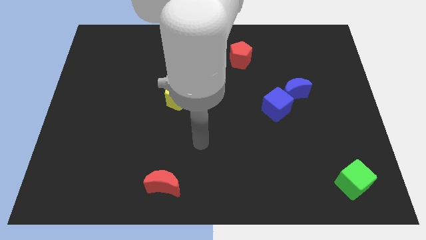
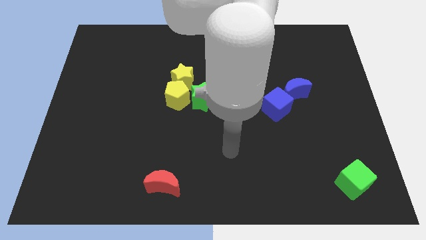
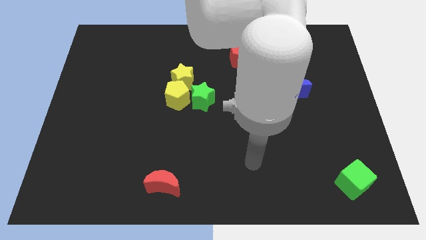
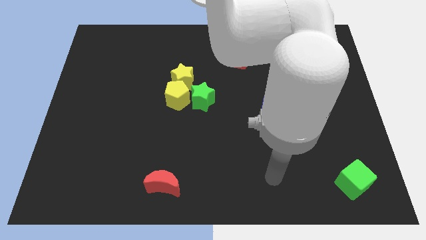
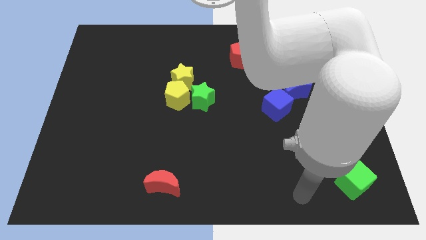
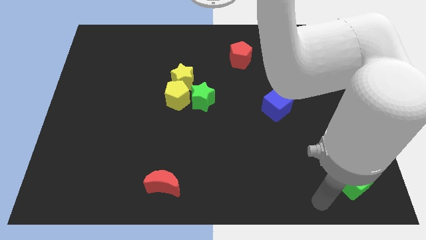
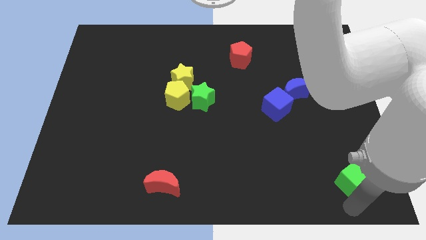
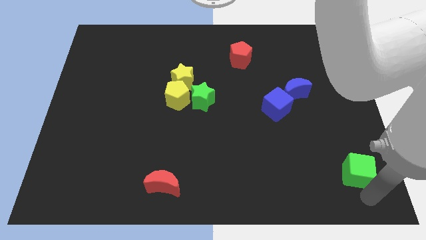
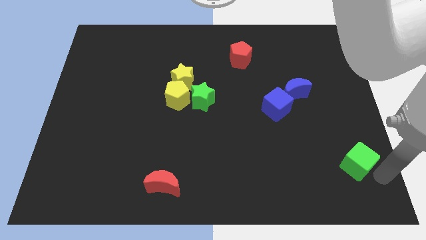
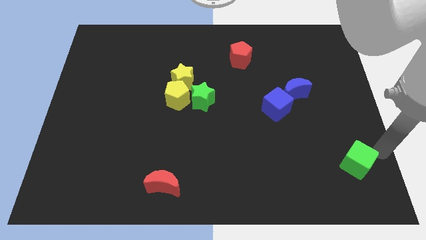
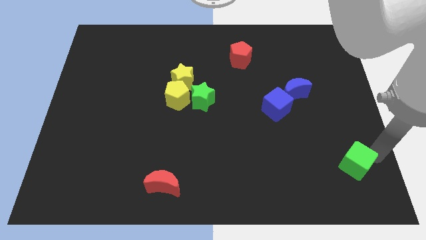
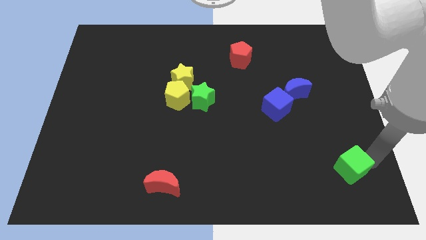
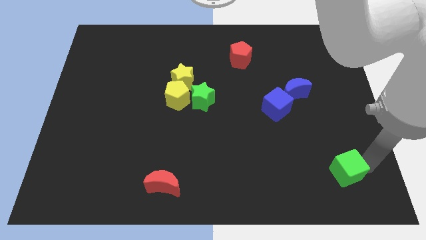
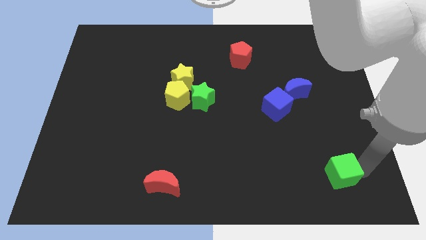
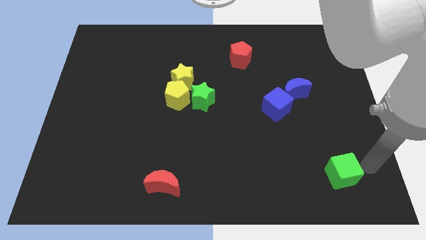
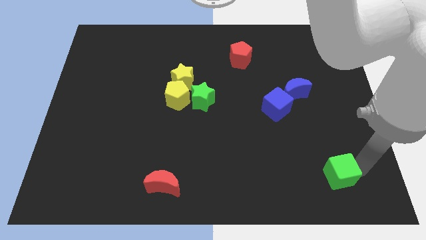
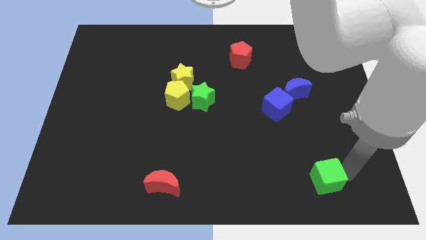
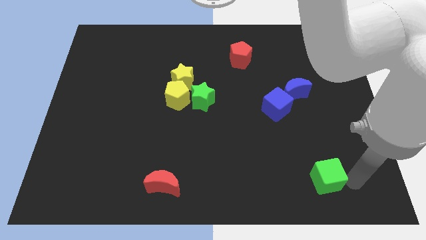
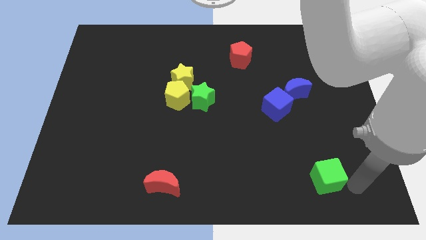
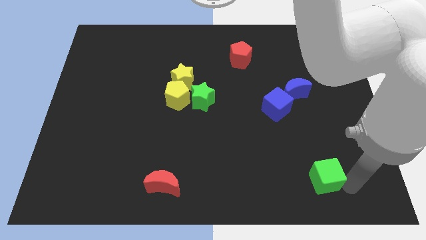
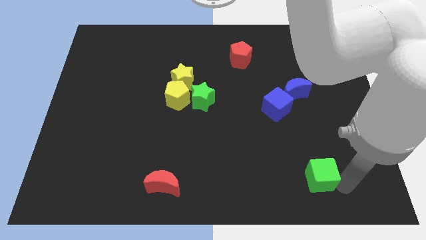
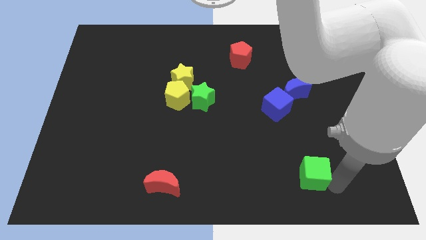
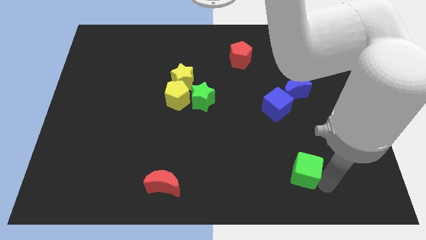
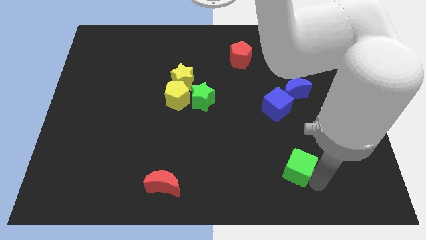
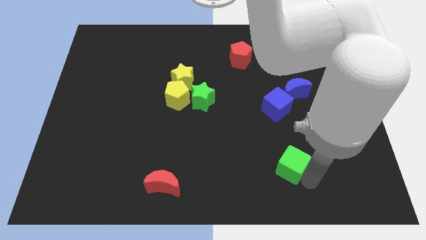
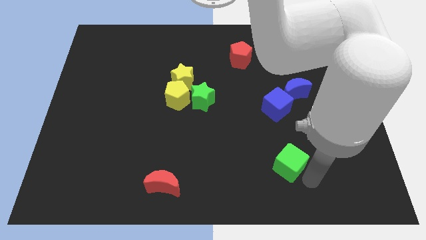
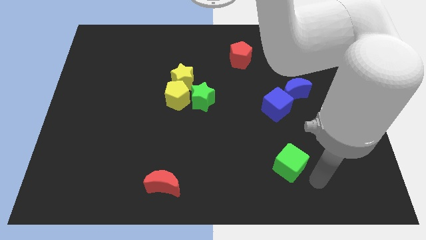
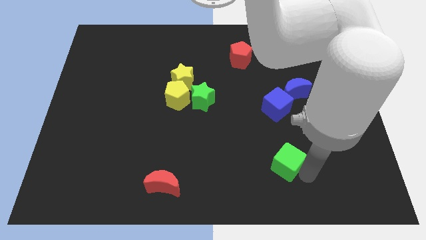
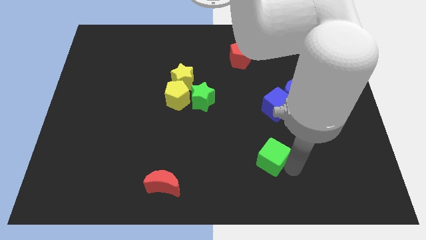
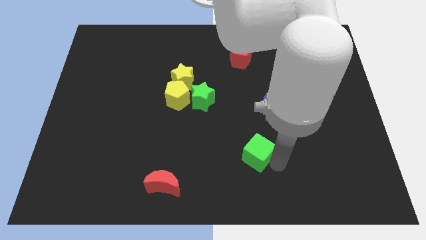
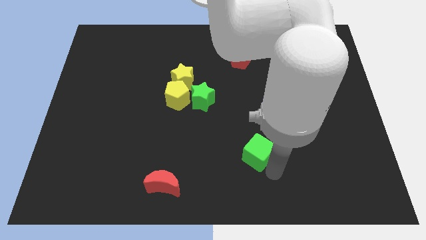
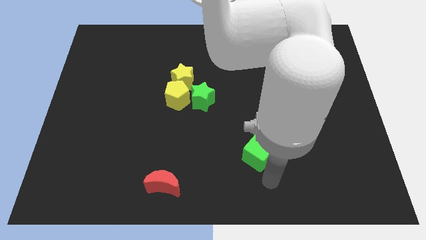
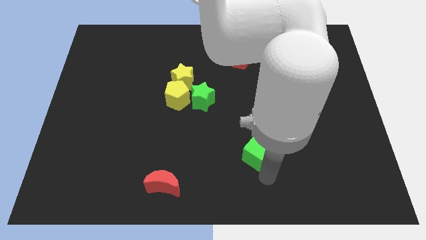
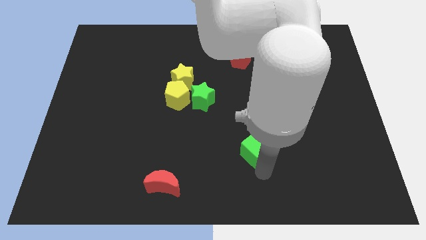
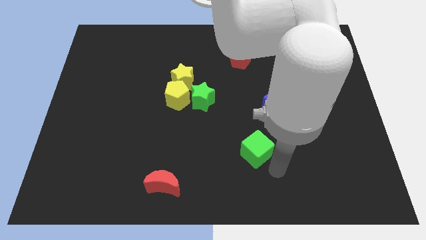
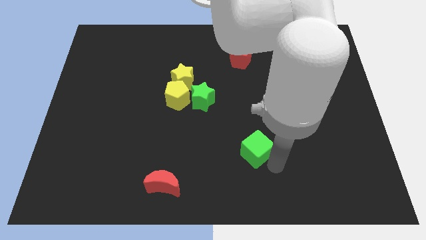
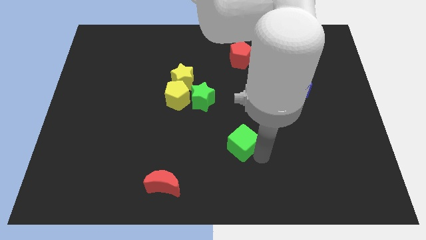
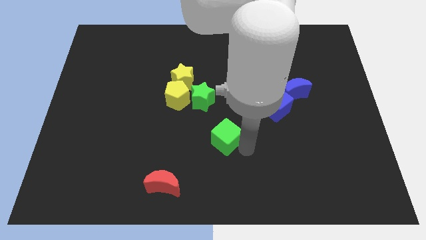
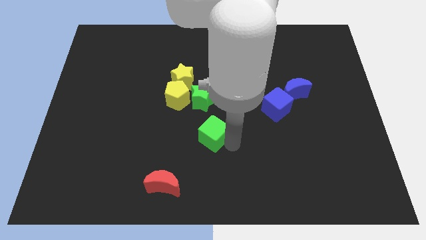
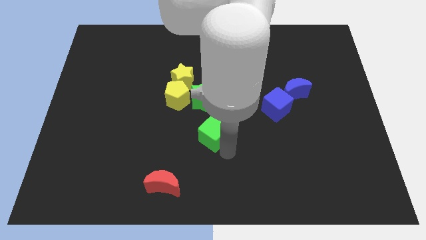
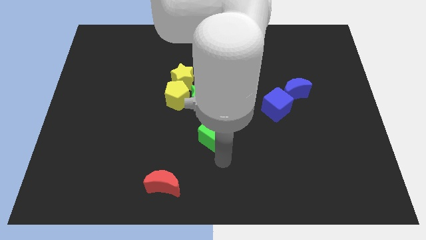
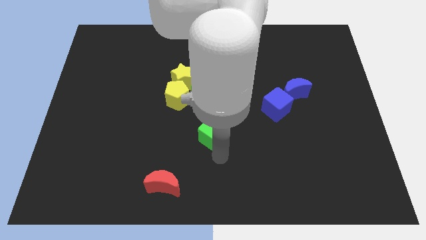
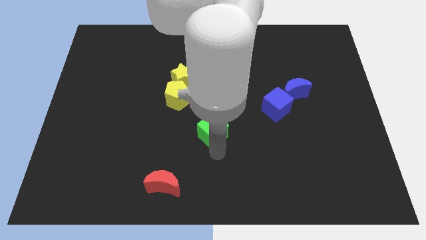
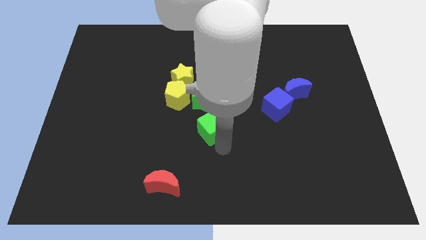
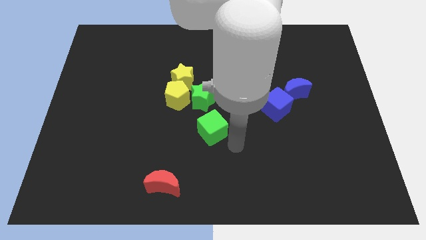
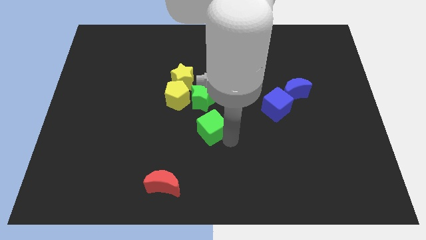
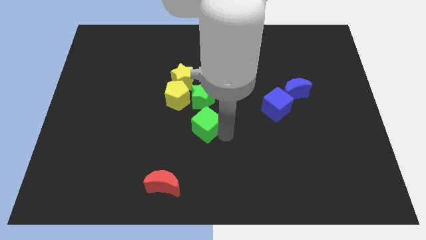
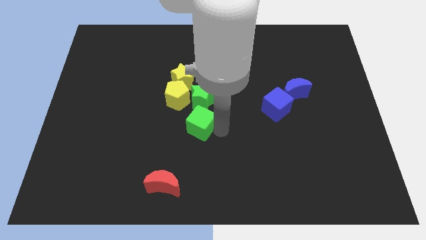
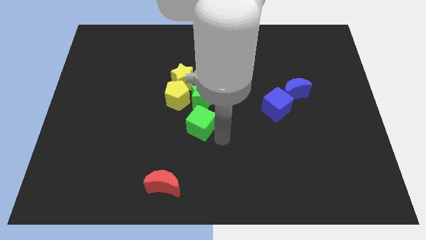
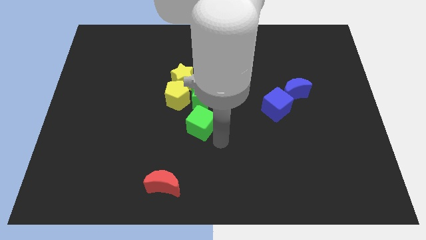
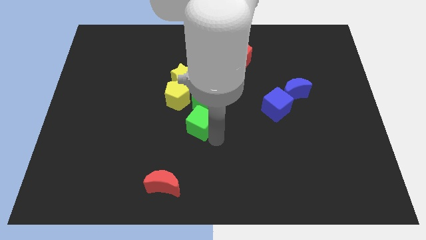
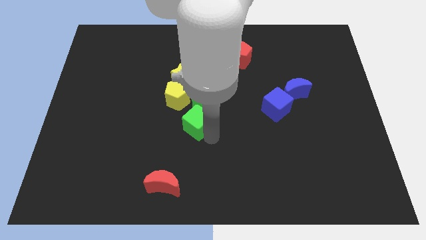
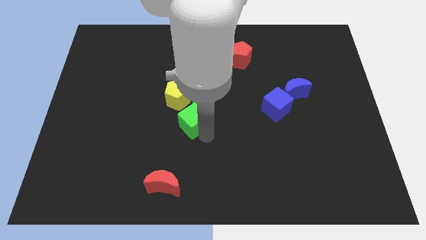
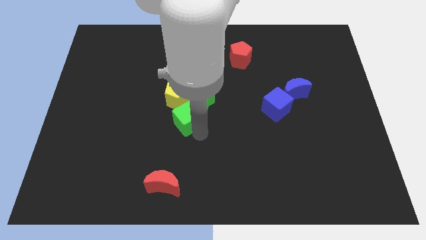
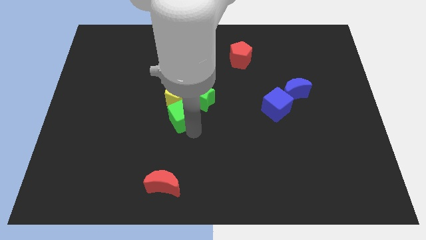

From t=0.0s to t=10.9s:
slide the green cube next to the yellow pentagon

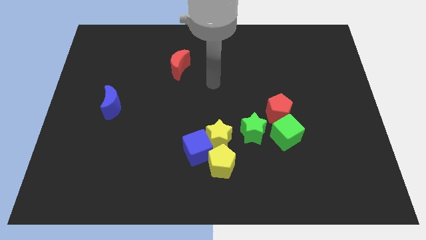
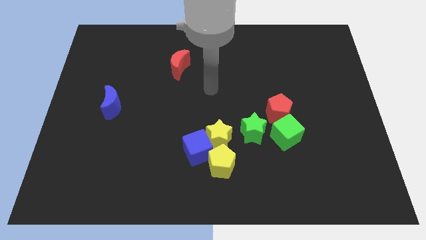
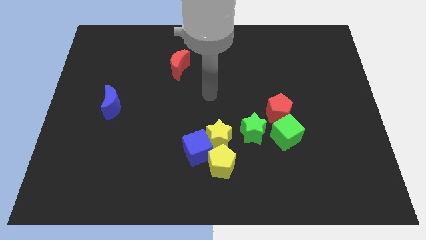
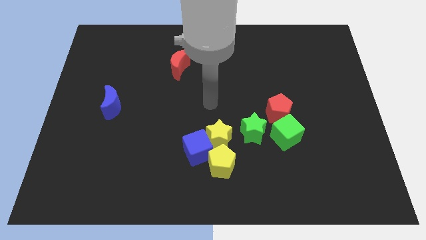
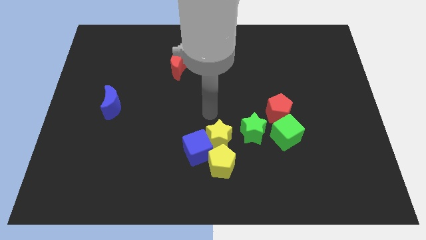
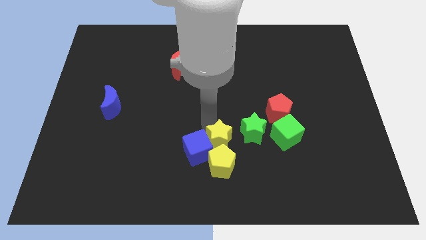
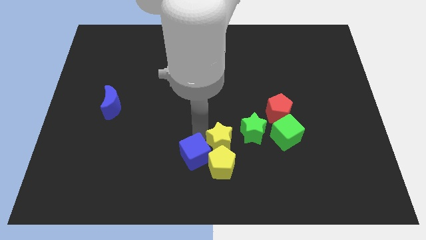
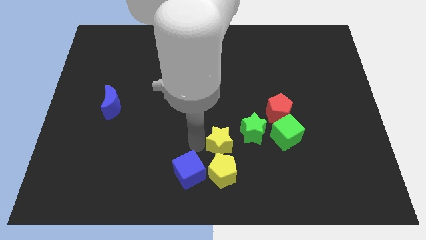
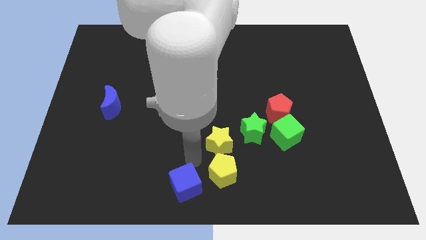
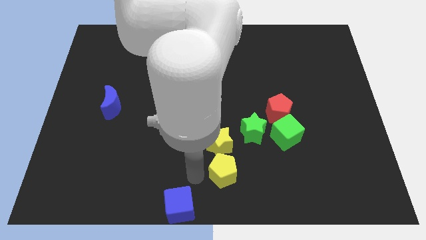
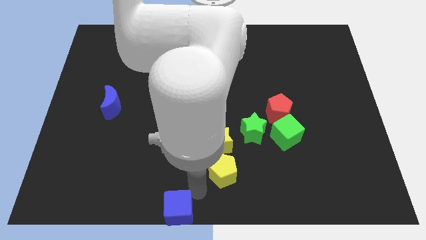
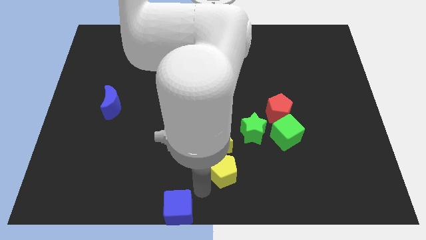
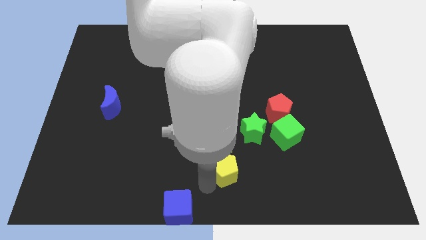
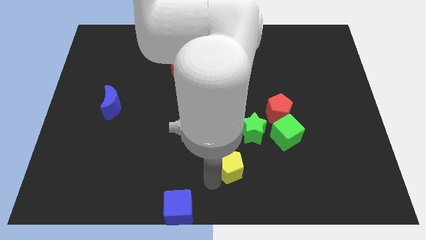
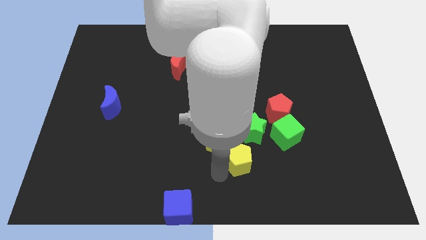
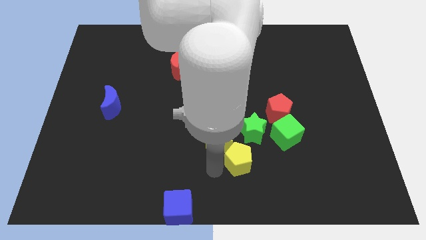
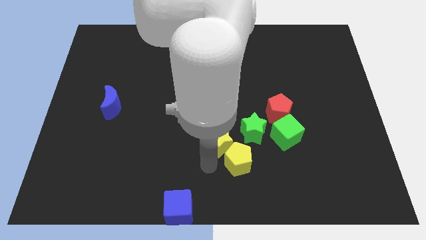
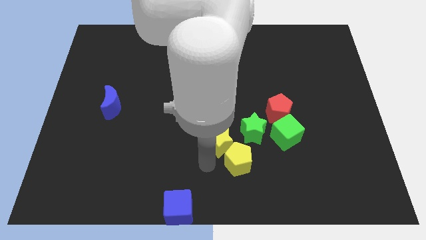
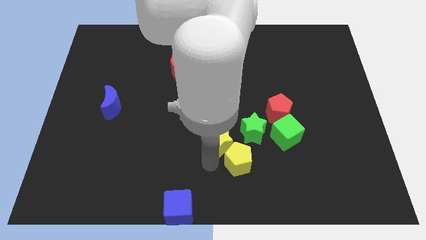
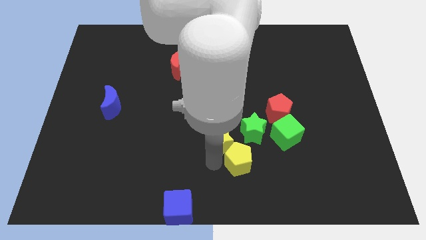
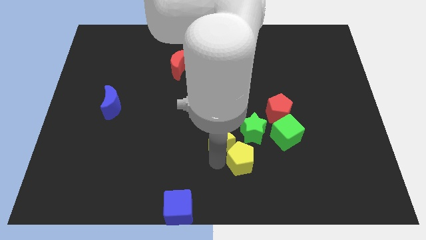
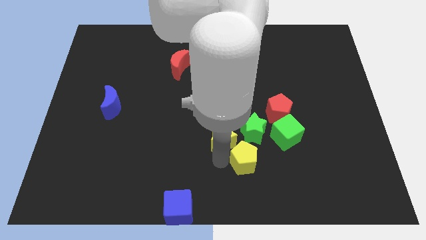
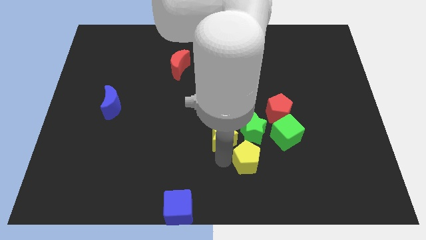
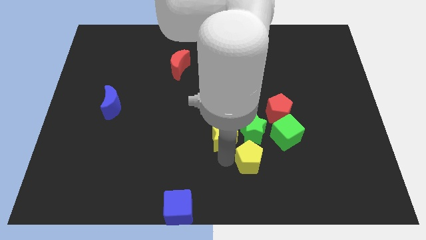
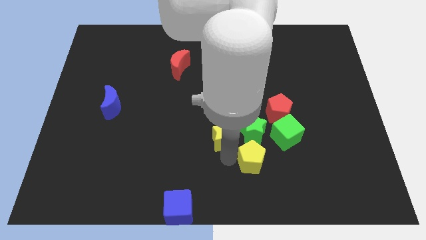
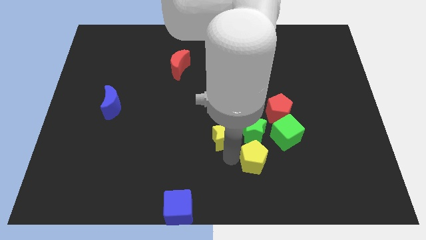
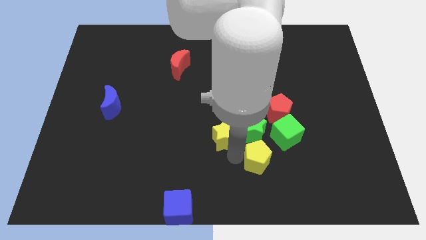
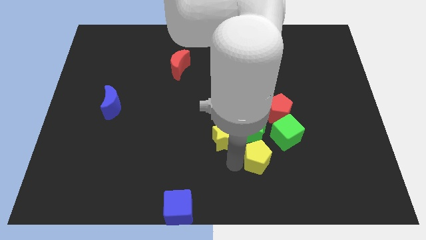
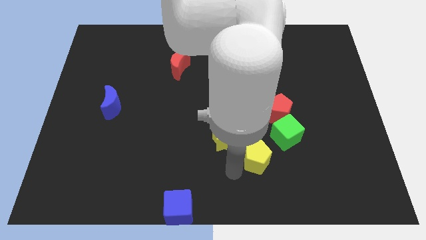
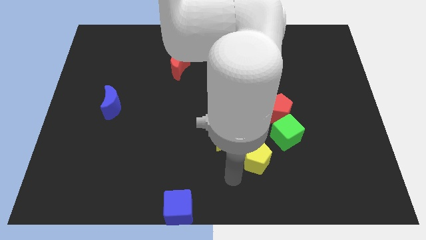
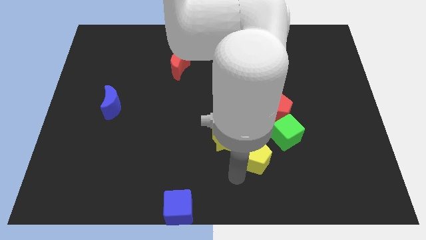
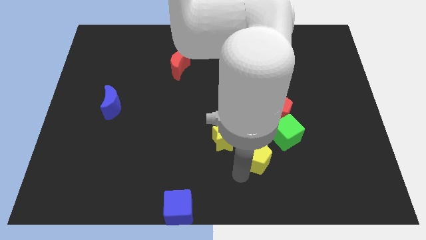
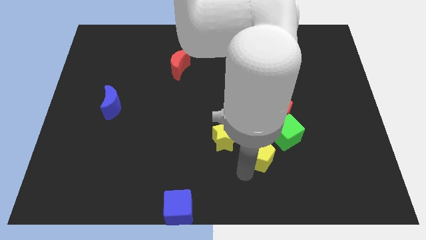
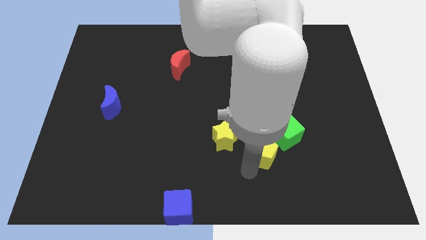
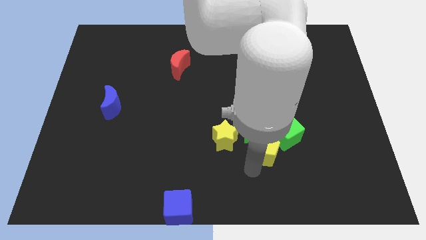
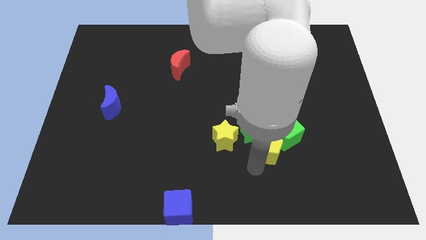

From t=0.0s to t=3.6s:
slide the yellow pentagon towards the green cube
